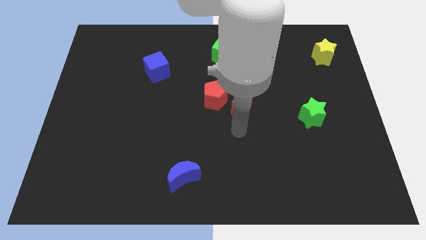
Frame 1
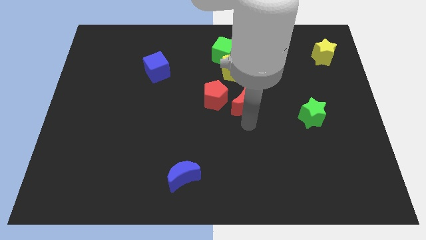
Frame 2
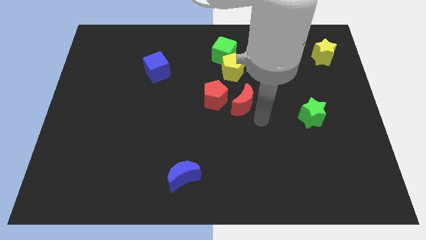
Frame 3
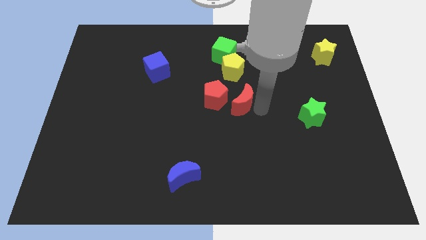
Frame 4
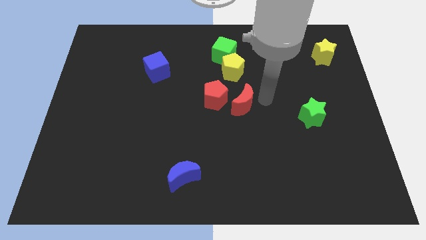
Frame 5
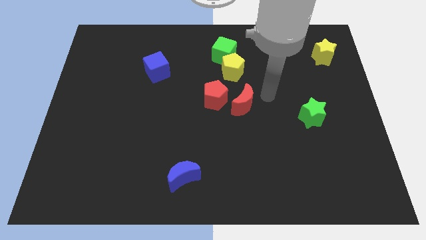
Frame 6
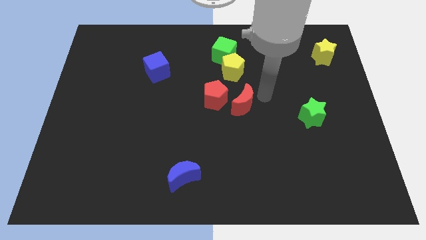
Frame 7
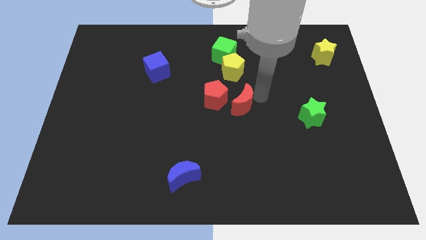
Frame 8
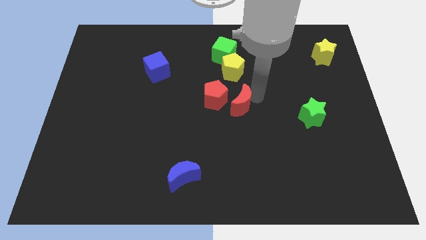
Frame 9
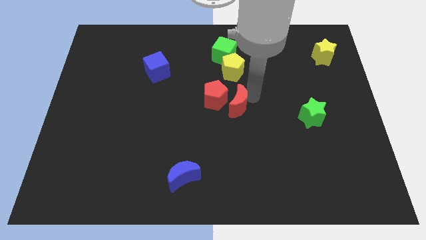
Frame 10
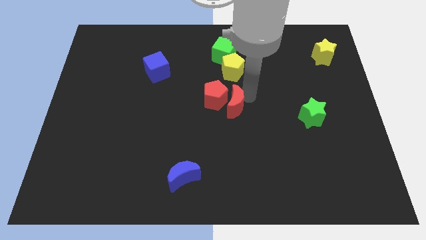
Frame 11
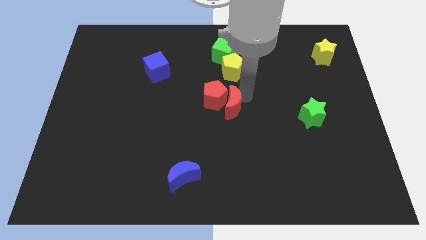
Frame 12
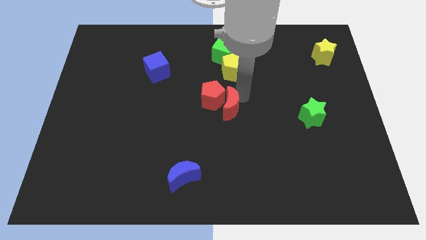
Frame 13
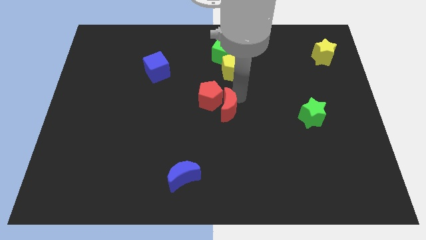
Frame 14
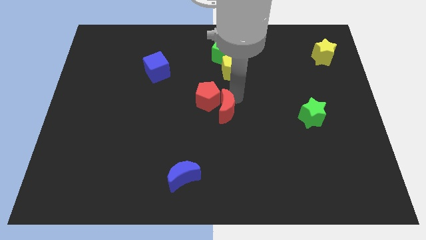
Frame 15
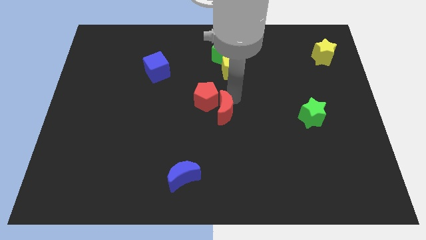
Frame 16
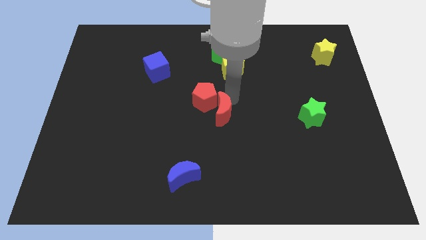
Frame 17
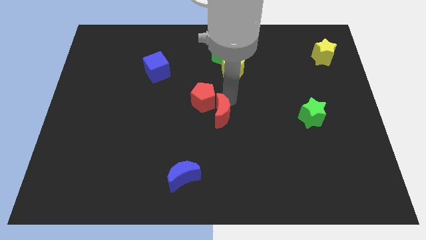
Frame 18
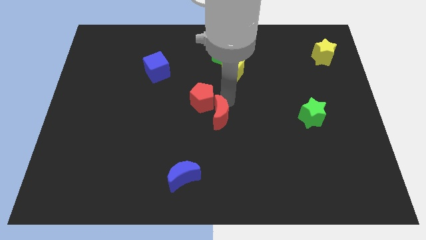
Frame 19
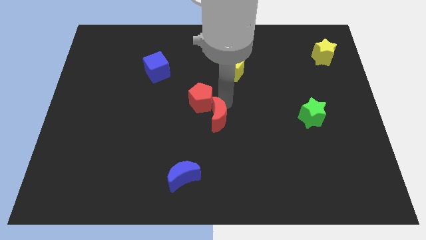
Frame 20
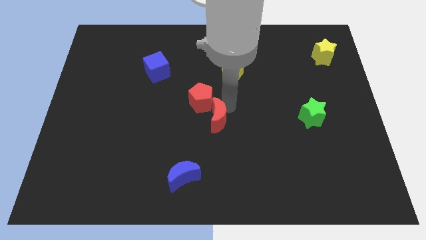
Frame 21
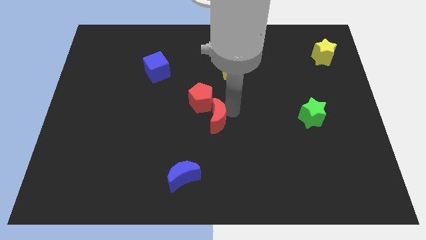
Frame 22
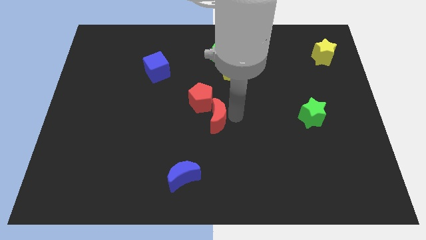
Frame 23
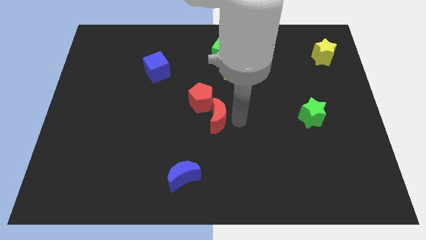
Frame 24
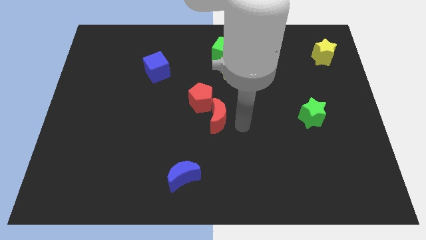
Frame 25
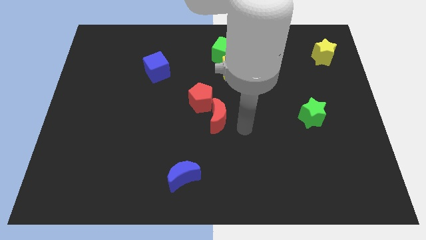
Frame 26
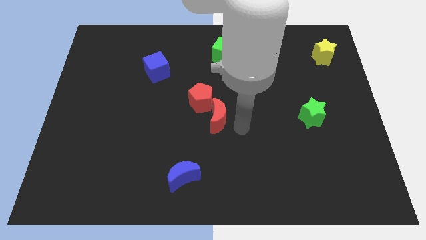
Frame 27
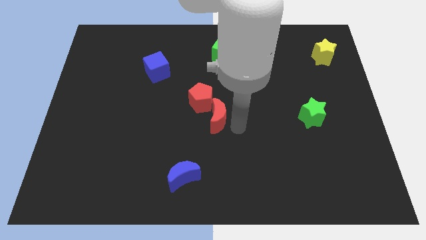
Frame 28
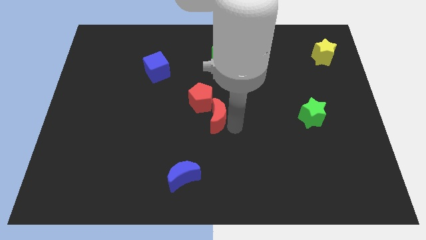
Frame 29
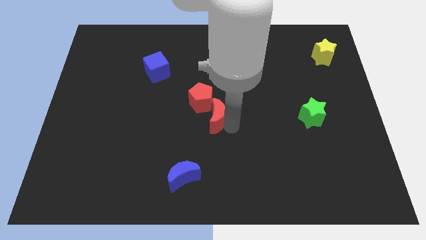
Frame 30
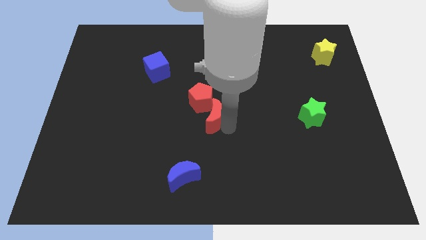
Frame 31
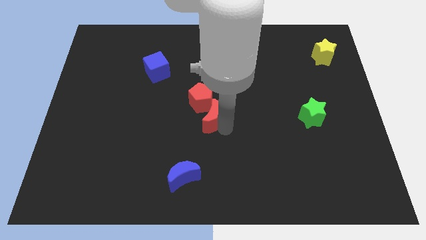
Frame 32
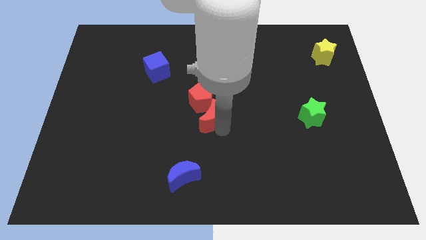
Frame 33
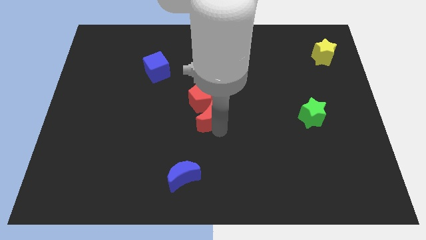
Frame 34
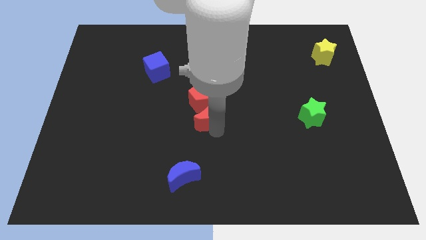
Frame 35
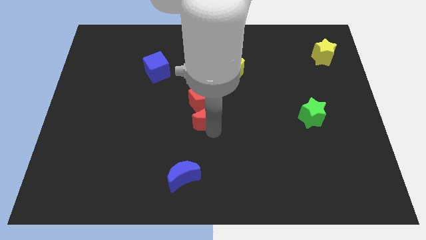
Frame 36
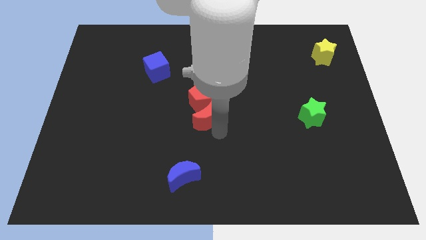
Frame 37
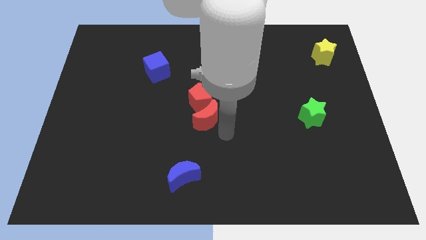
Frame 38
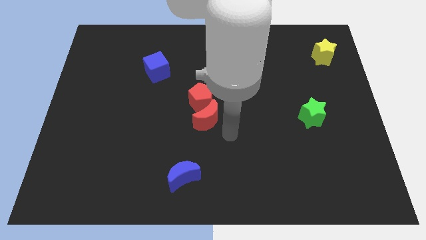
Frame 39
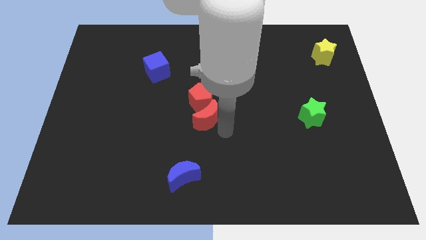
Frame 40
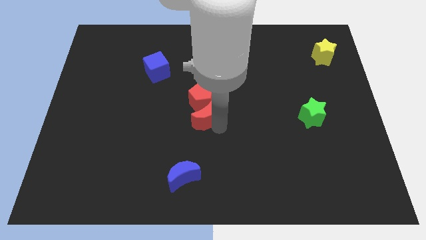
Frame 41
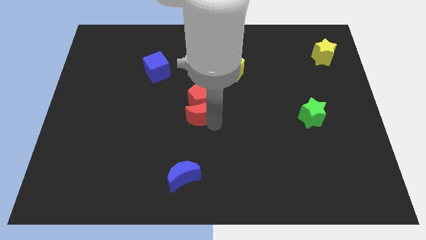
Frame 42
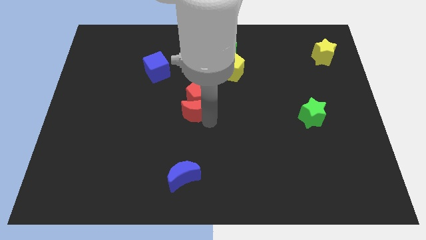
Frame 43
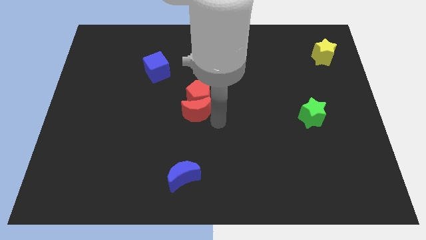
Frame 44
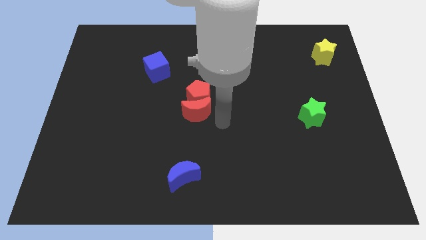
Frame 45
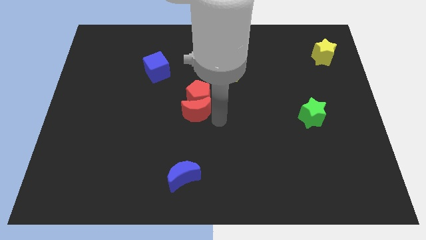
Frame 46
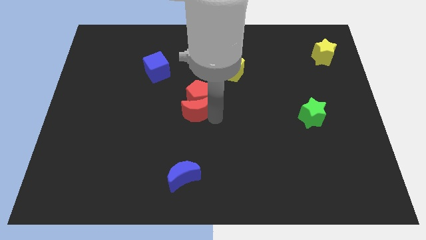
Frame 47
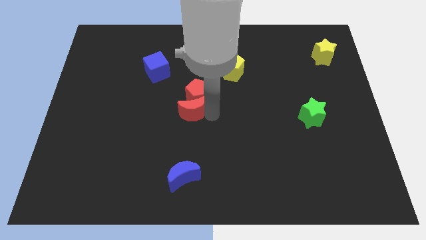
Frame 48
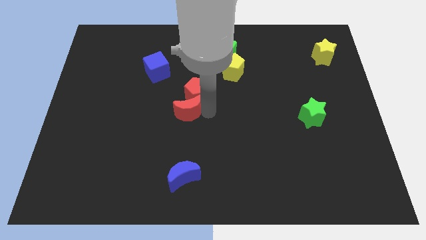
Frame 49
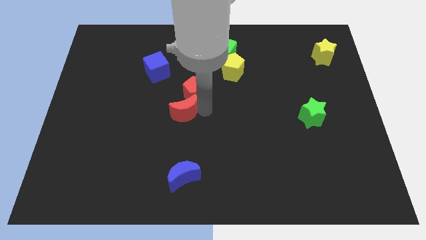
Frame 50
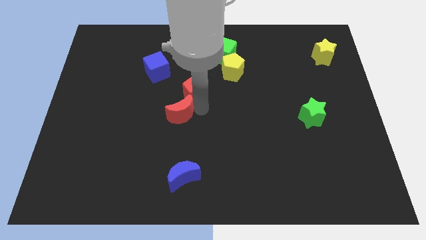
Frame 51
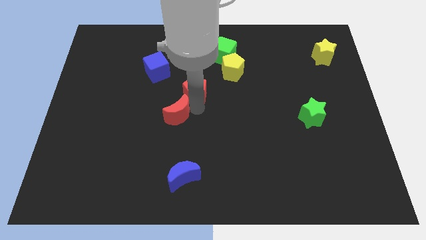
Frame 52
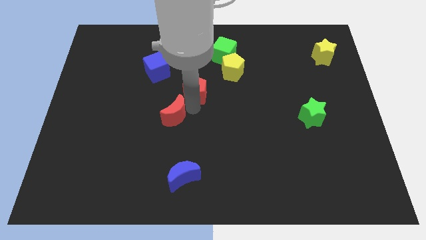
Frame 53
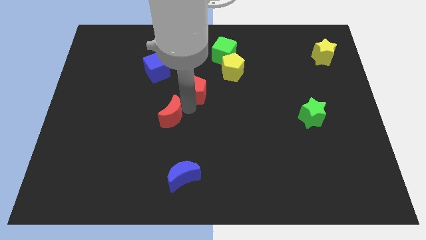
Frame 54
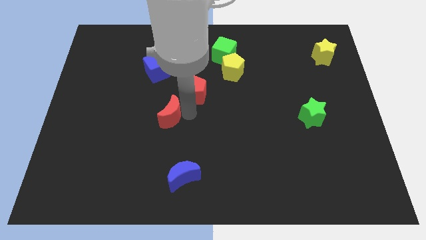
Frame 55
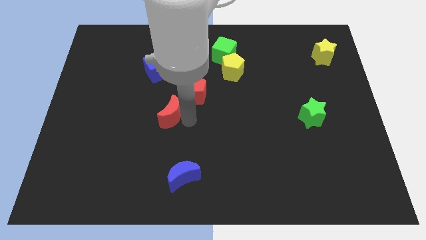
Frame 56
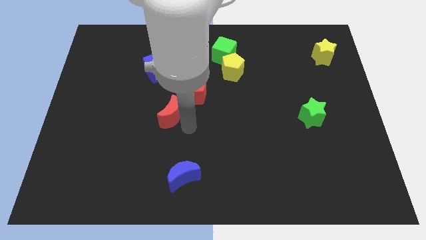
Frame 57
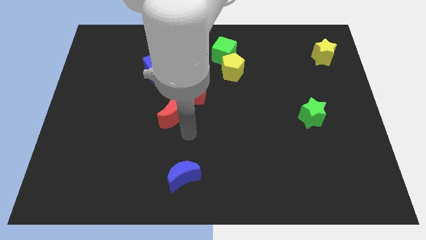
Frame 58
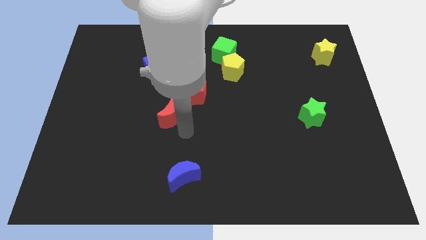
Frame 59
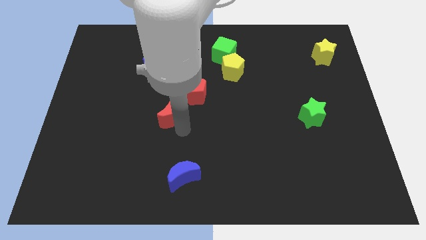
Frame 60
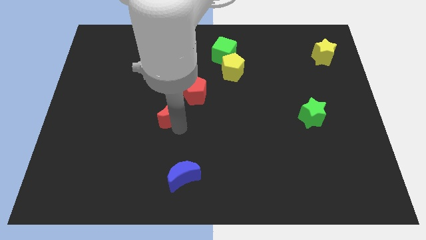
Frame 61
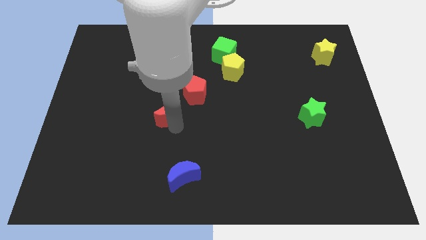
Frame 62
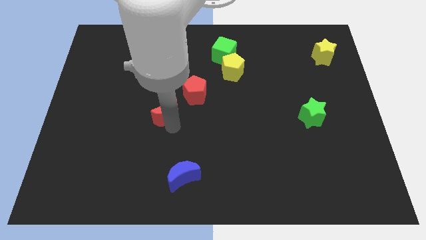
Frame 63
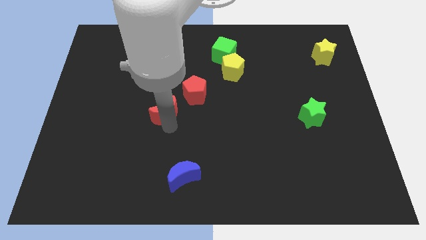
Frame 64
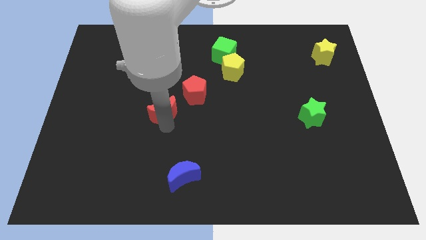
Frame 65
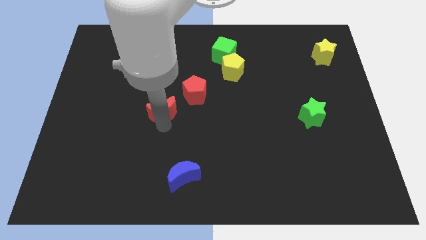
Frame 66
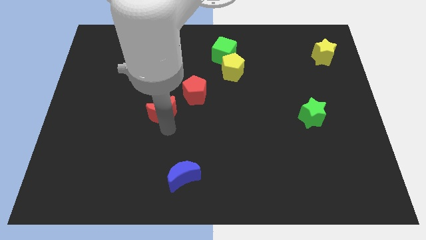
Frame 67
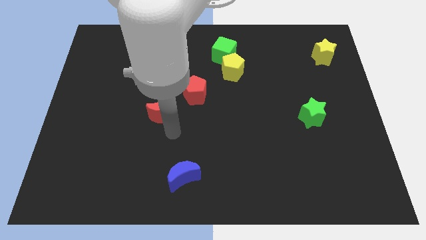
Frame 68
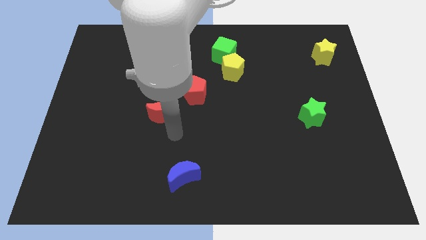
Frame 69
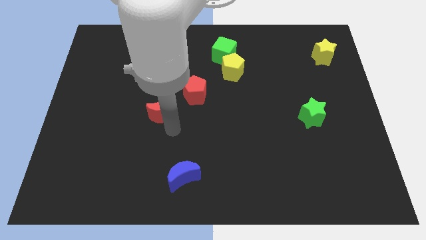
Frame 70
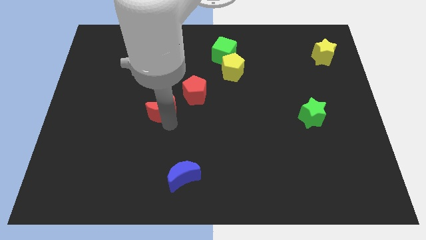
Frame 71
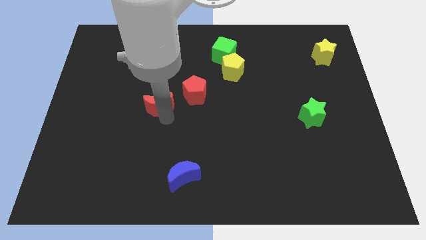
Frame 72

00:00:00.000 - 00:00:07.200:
put the red moon just left of the red pentagon
